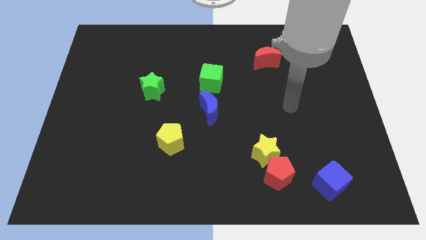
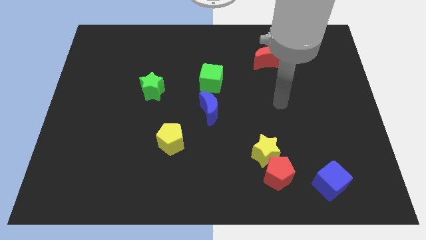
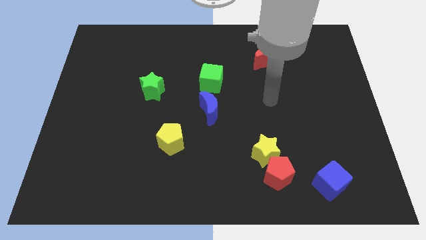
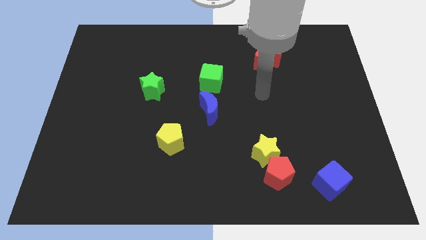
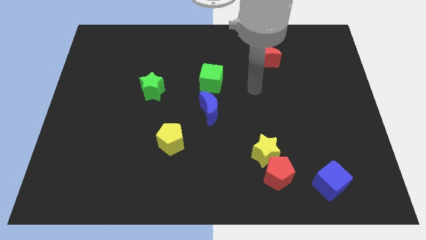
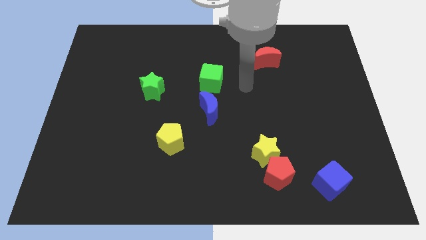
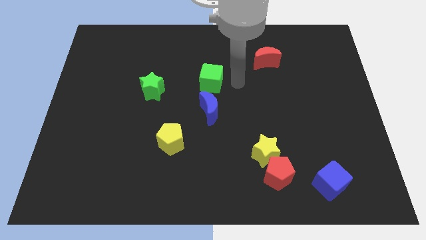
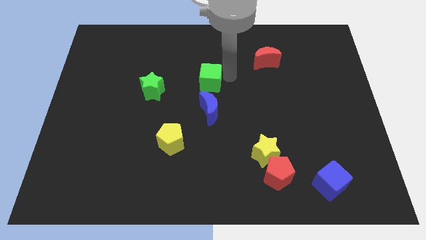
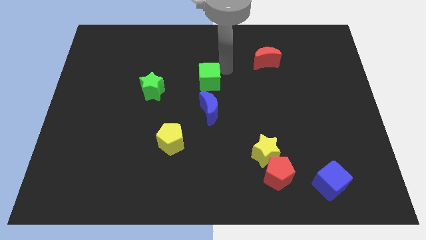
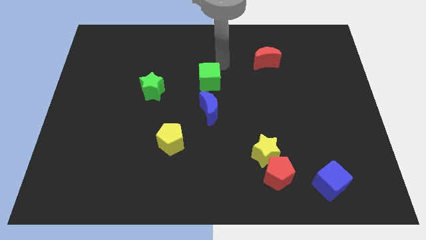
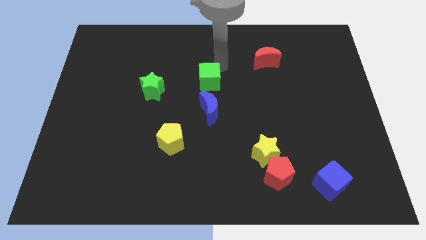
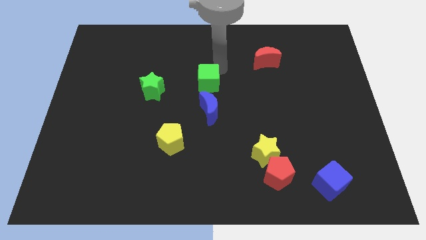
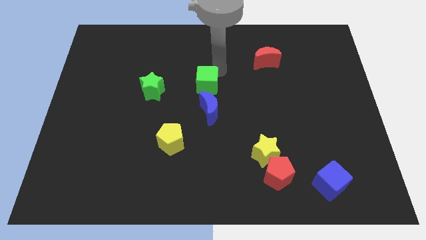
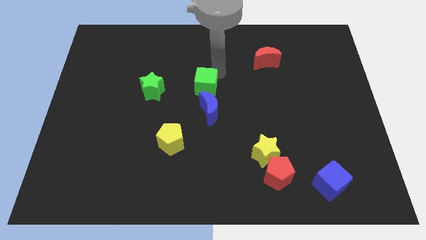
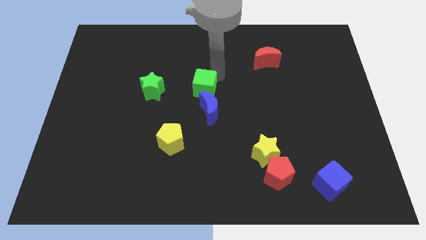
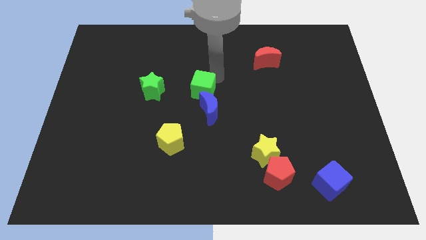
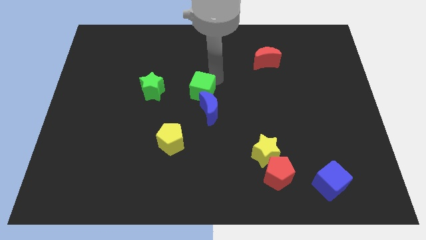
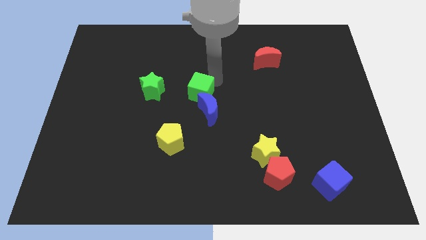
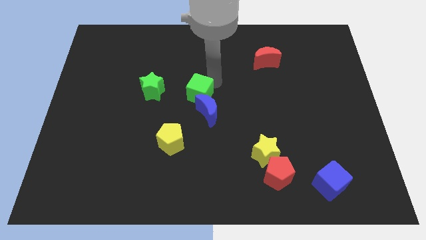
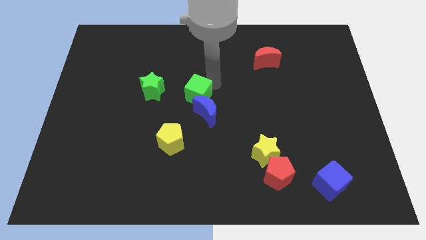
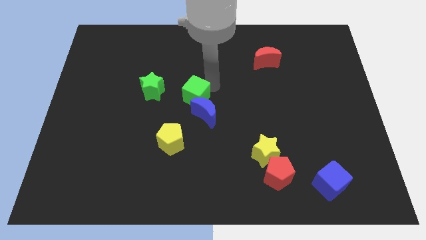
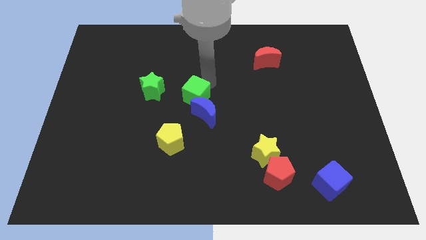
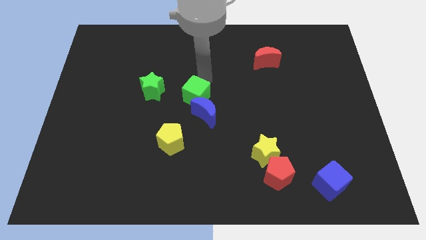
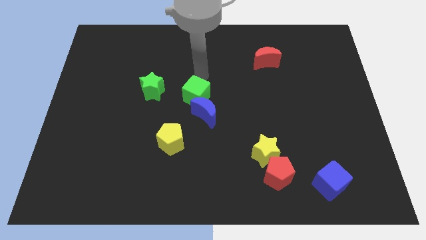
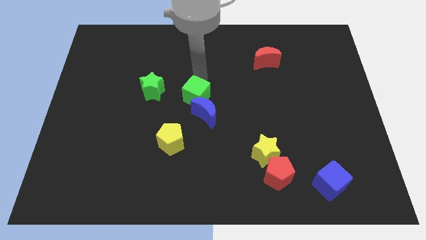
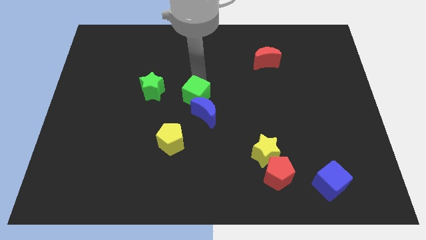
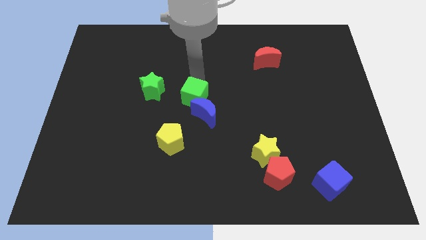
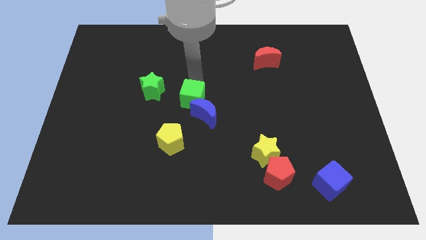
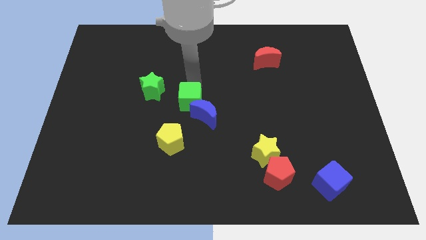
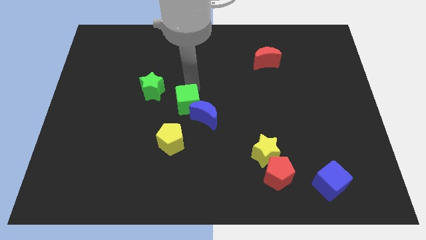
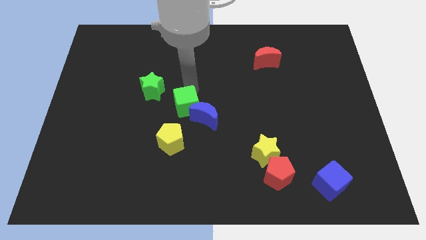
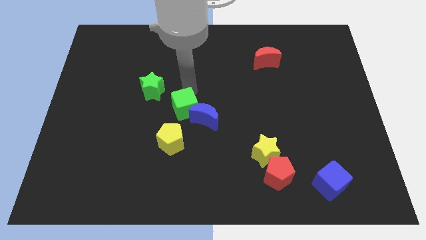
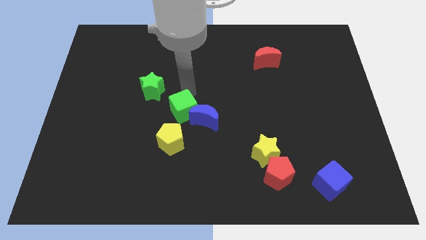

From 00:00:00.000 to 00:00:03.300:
move the green cube down a little

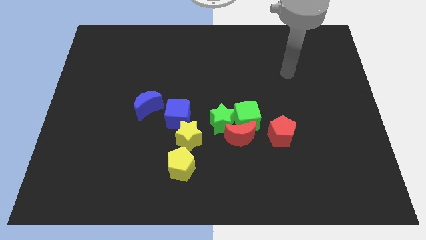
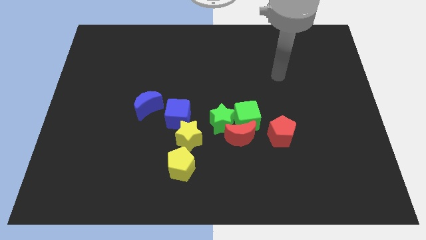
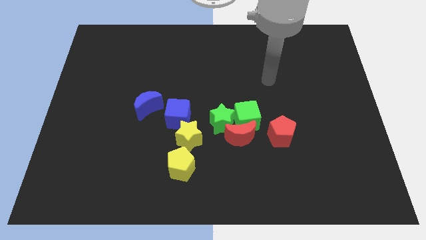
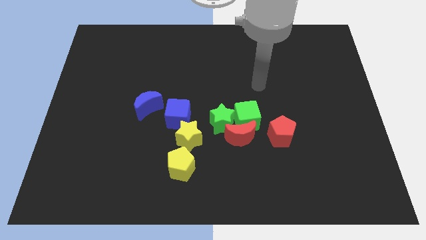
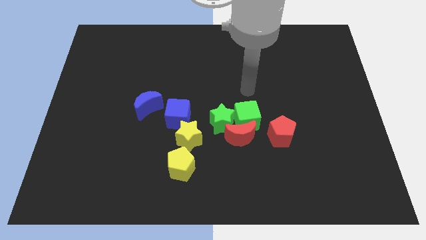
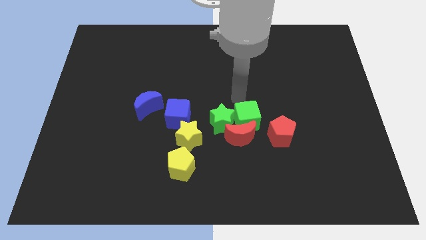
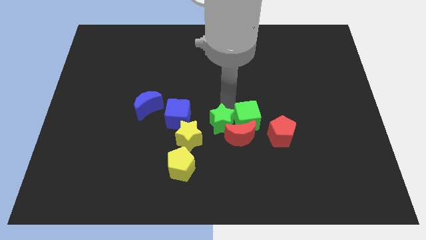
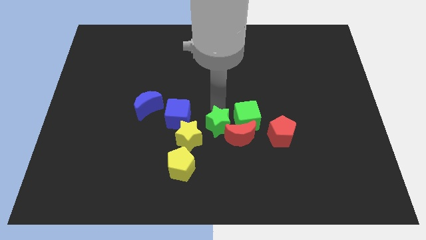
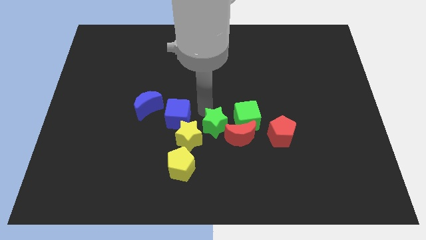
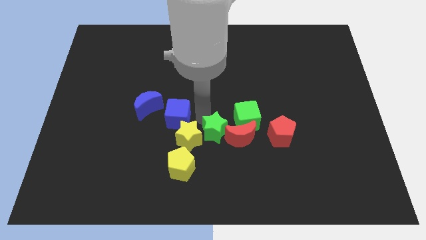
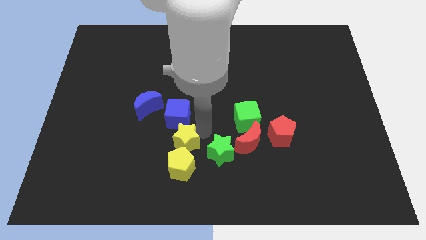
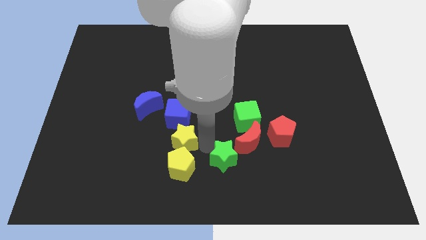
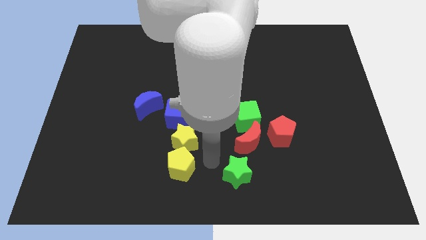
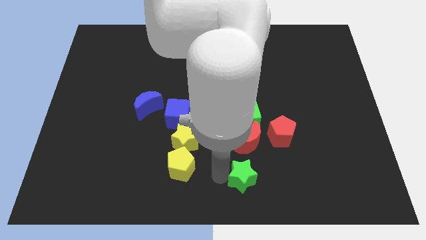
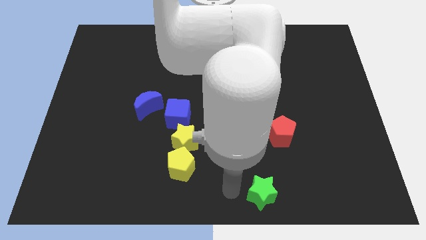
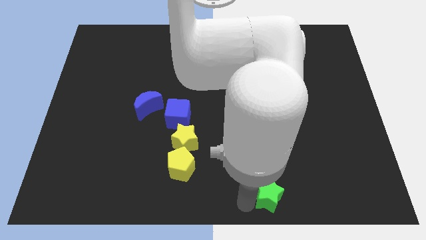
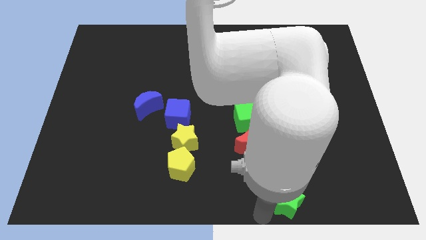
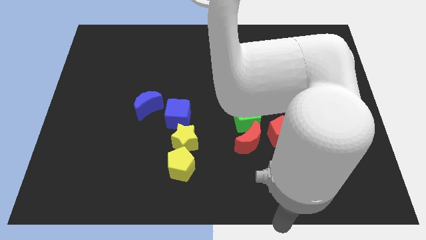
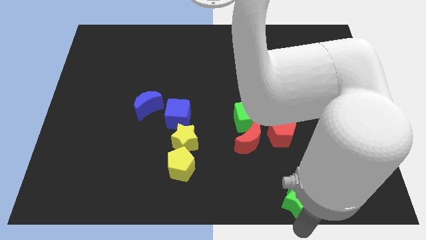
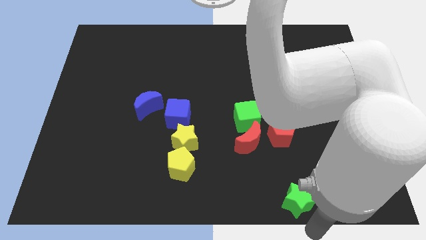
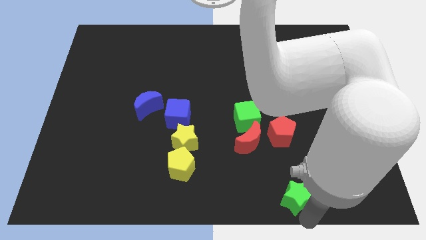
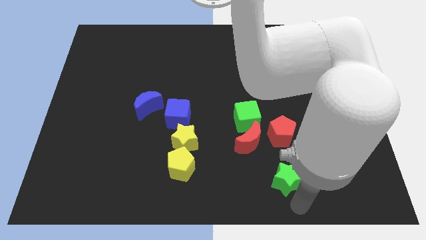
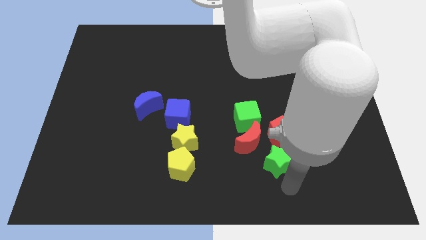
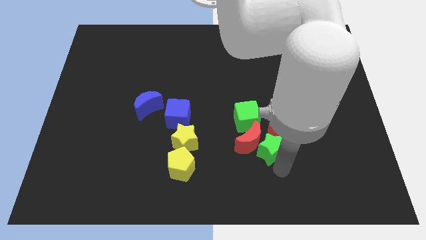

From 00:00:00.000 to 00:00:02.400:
push the green star to the right a bit

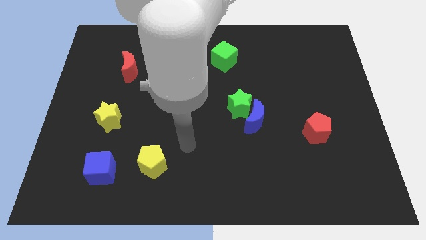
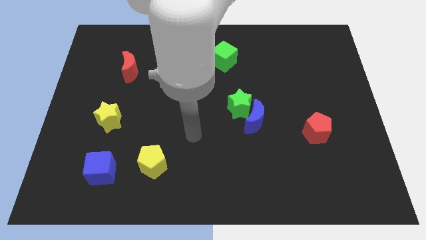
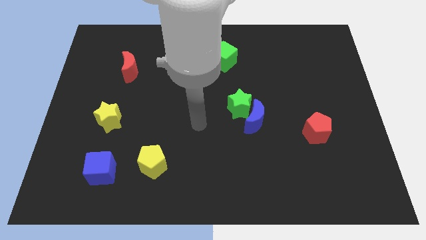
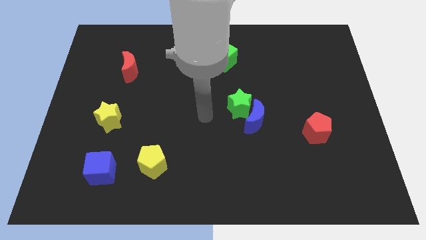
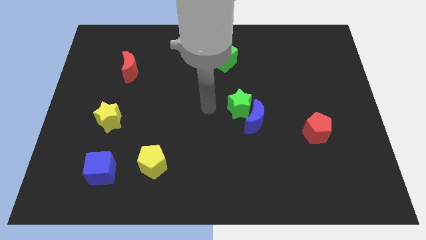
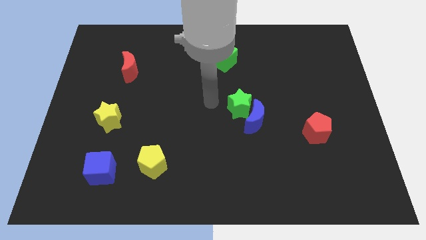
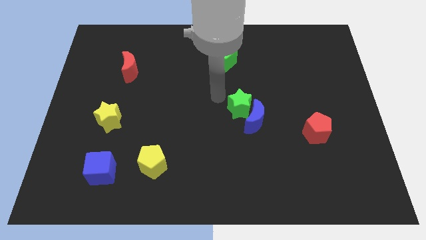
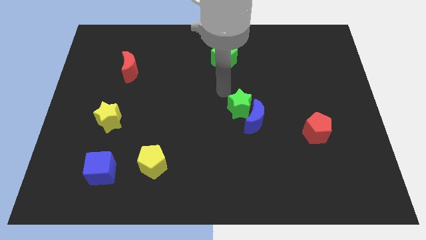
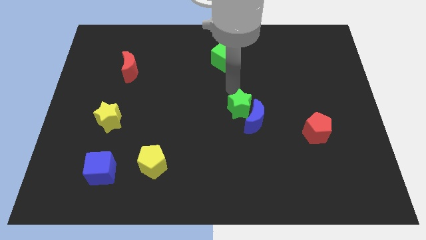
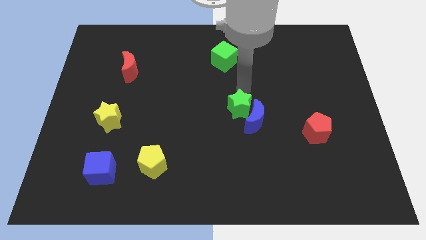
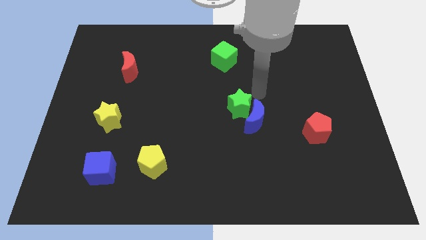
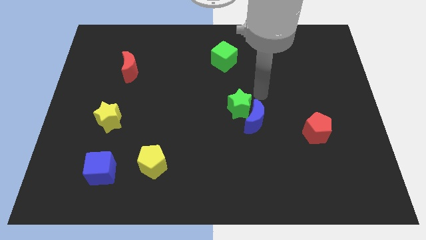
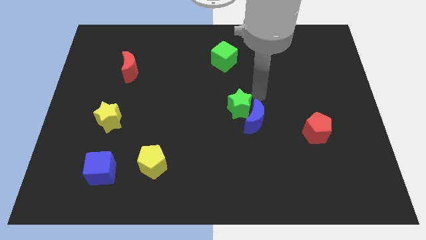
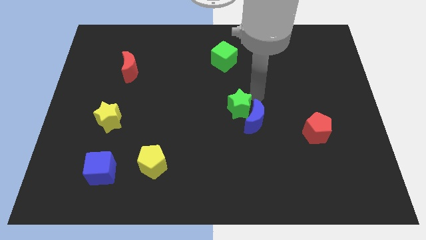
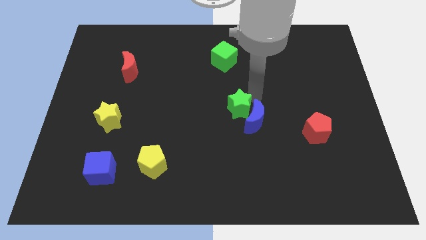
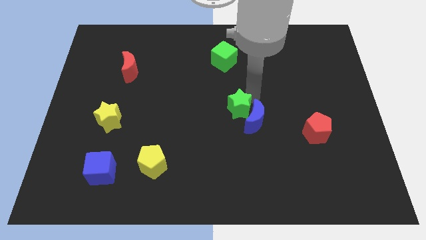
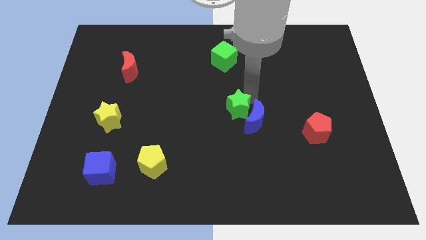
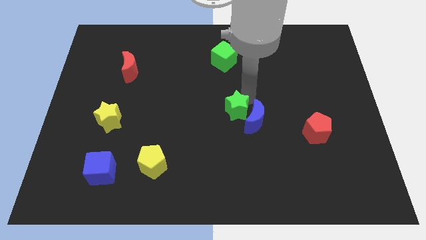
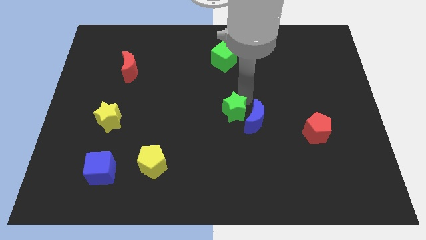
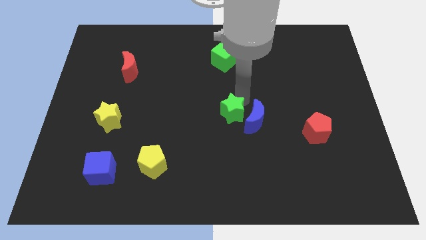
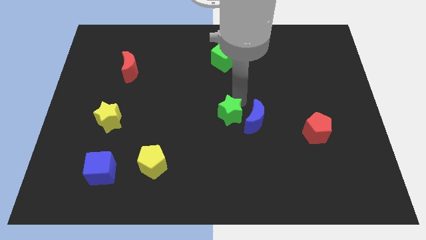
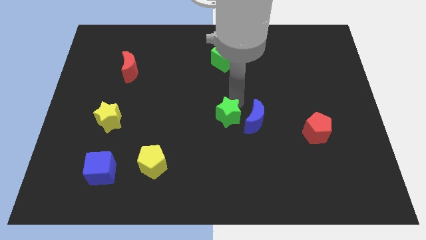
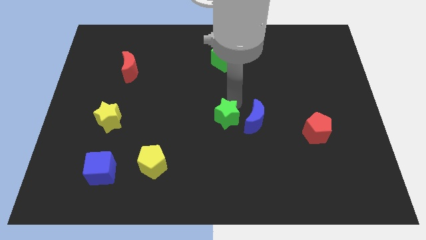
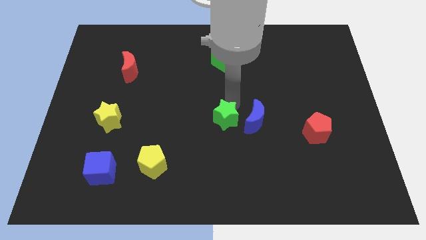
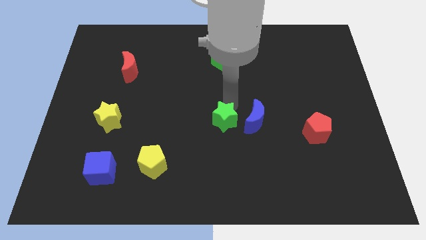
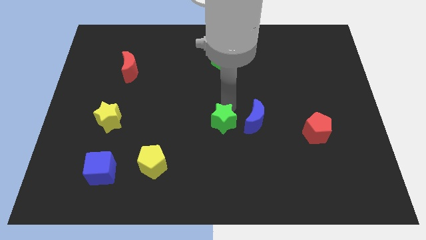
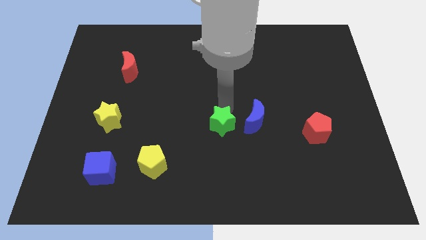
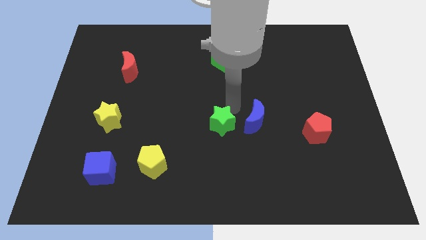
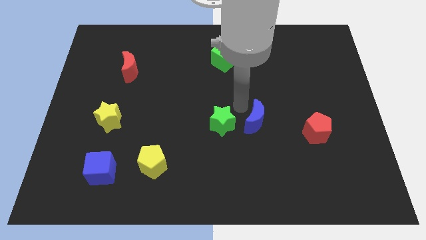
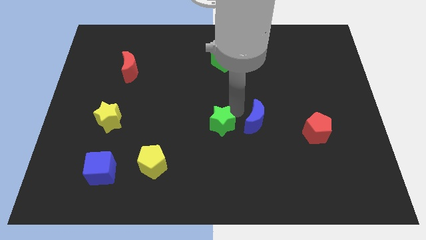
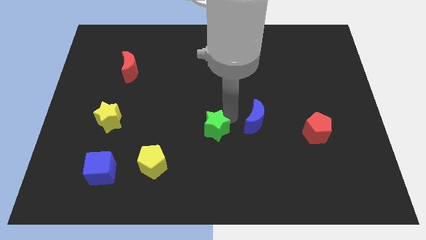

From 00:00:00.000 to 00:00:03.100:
slightly move the green star downwards and to the left
